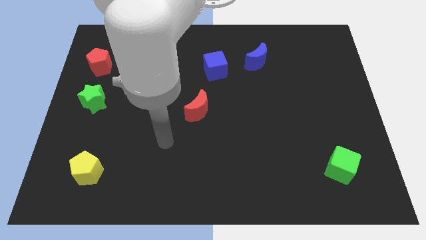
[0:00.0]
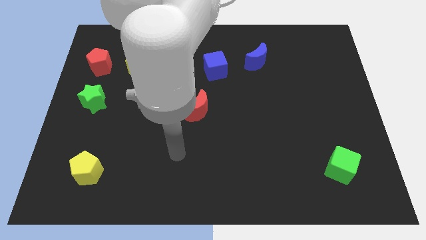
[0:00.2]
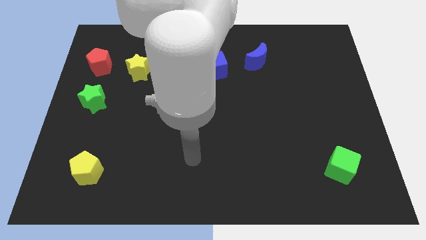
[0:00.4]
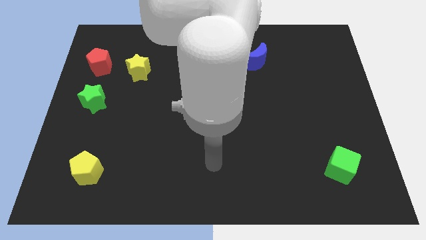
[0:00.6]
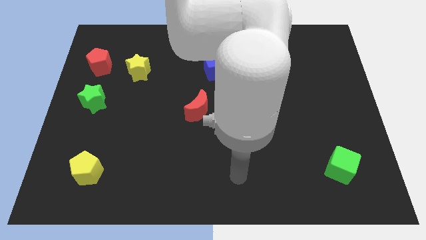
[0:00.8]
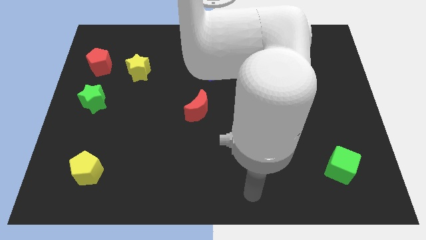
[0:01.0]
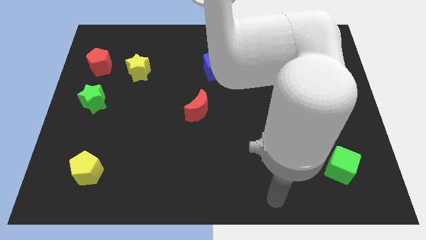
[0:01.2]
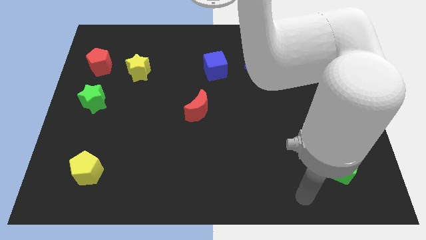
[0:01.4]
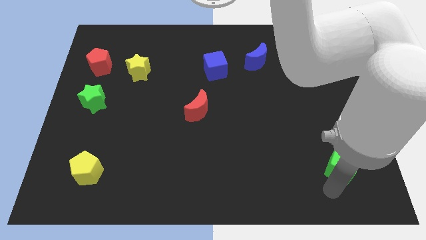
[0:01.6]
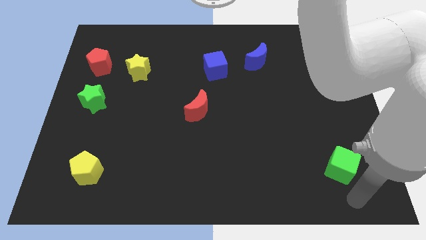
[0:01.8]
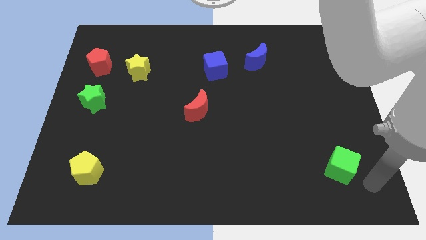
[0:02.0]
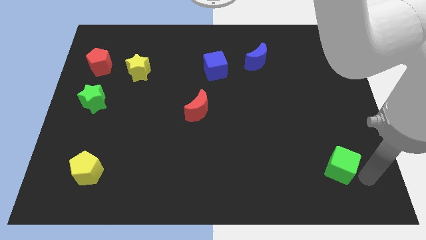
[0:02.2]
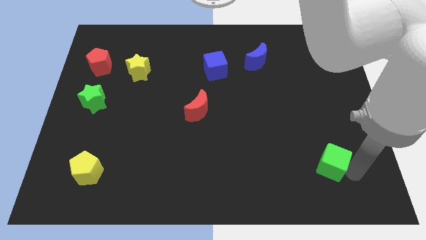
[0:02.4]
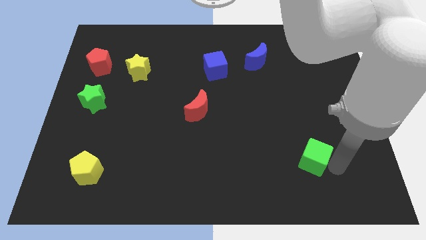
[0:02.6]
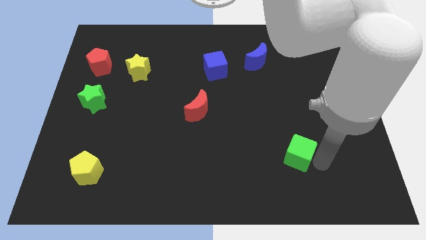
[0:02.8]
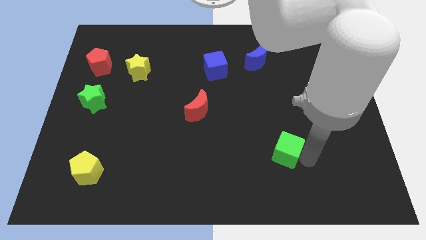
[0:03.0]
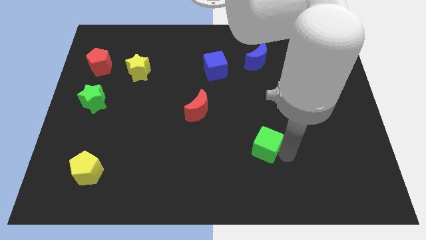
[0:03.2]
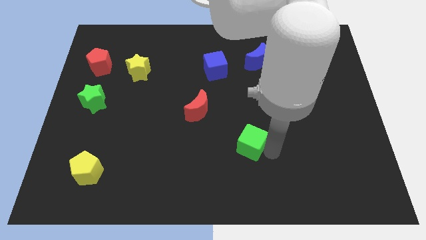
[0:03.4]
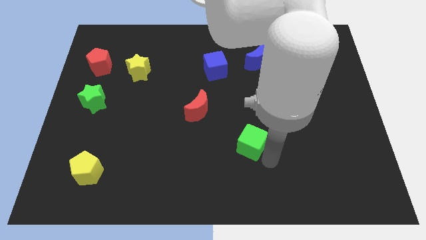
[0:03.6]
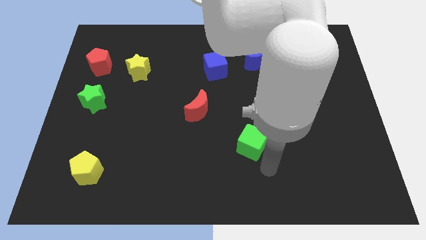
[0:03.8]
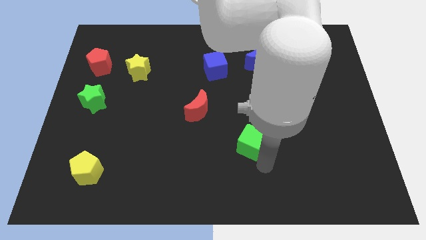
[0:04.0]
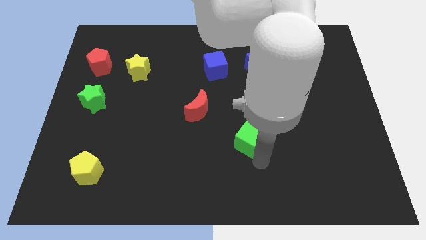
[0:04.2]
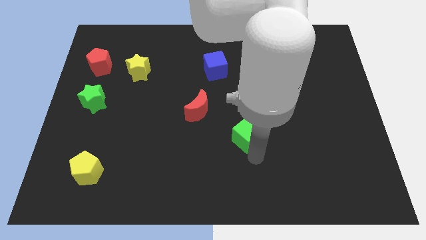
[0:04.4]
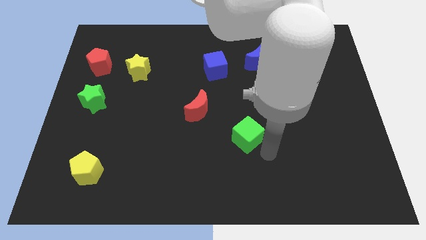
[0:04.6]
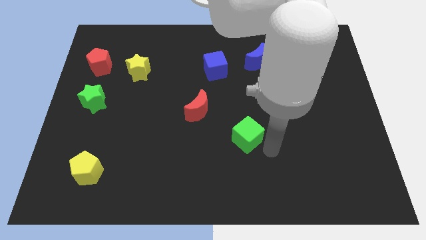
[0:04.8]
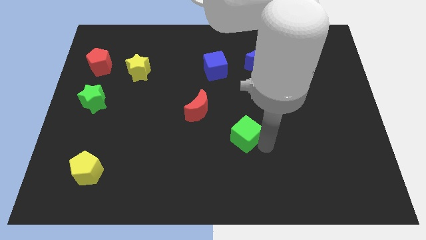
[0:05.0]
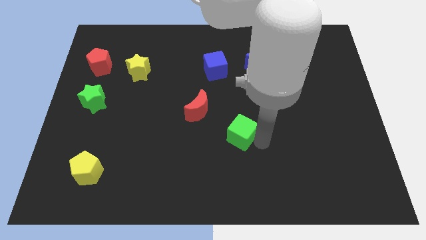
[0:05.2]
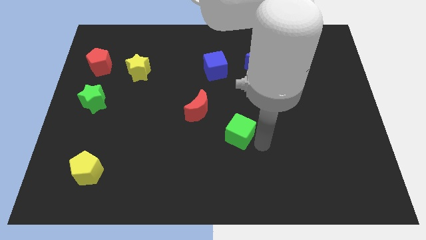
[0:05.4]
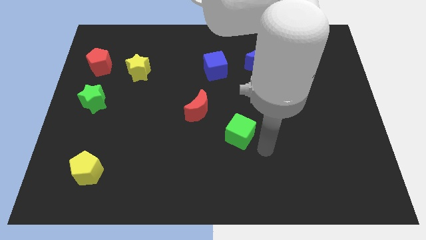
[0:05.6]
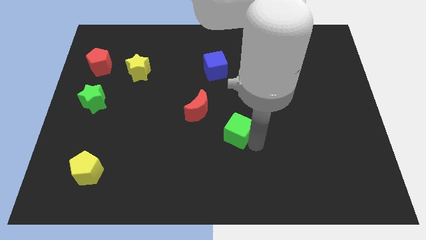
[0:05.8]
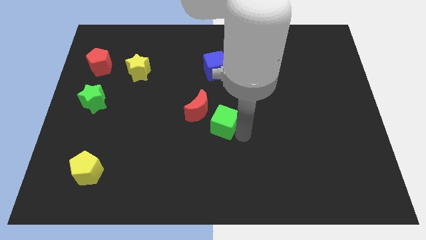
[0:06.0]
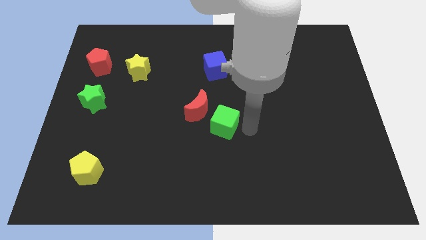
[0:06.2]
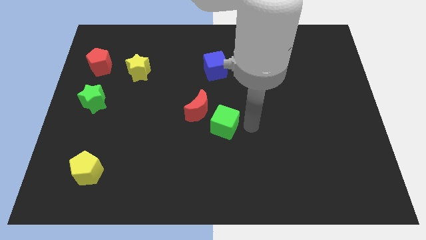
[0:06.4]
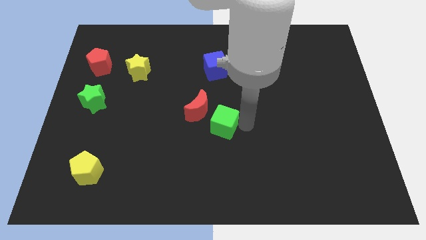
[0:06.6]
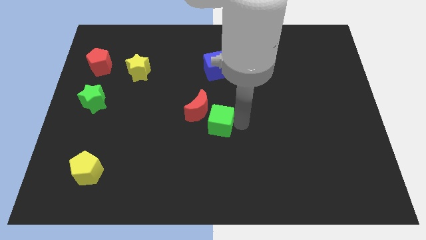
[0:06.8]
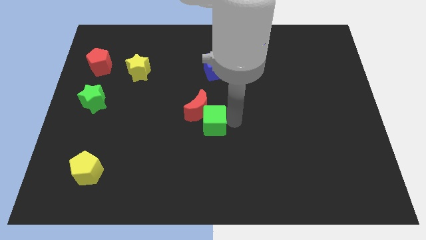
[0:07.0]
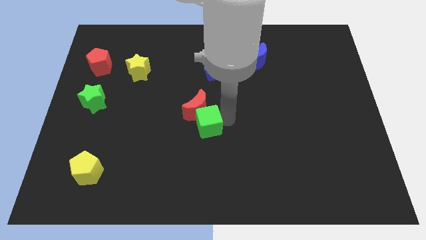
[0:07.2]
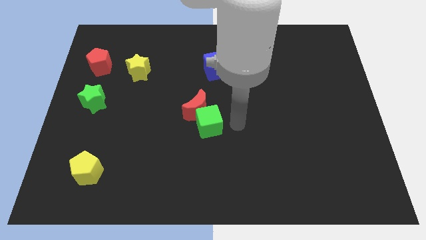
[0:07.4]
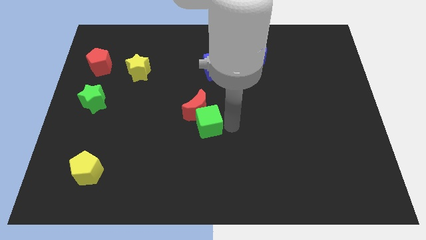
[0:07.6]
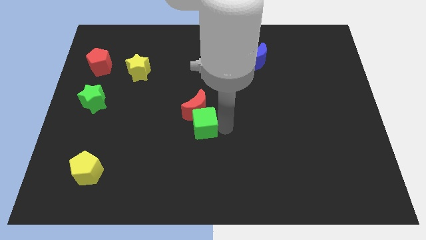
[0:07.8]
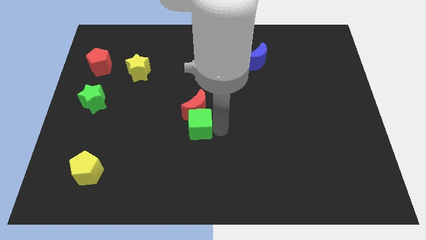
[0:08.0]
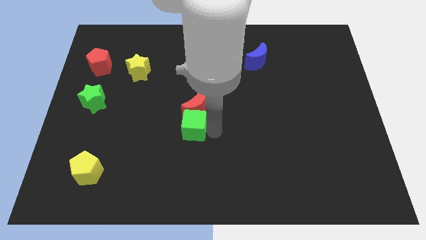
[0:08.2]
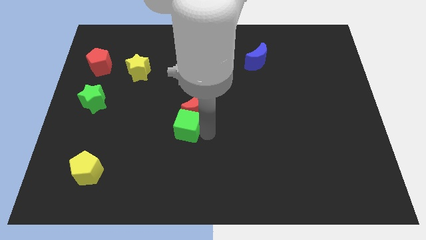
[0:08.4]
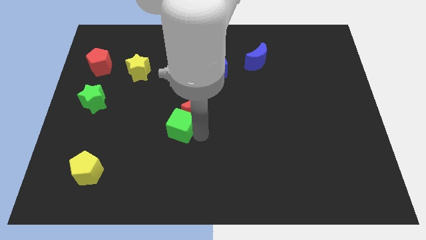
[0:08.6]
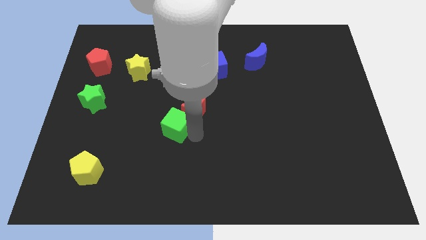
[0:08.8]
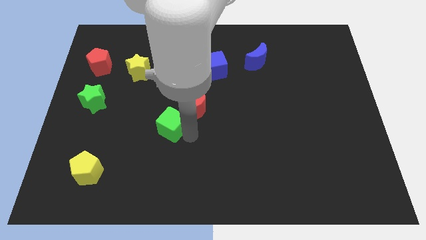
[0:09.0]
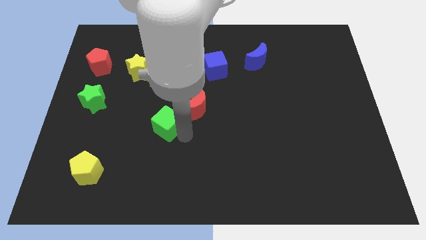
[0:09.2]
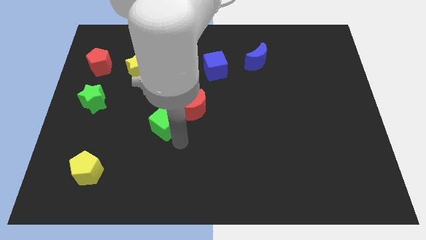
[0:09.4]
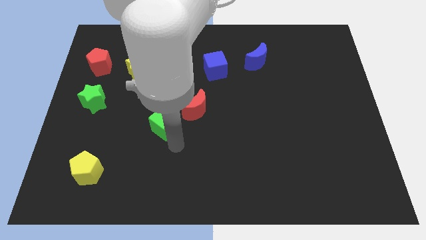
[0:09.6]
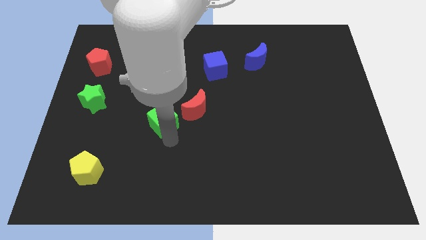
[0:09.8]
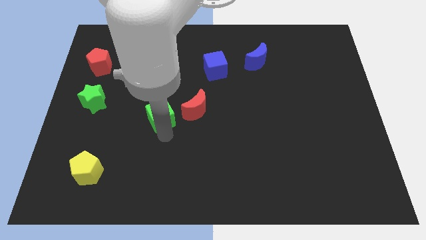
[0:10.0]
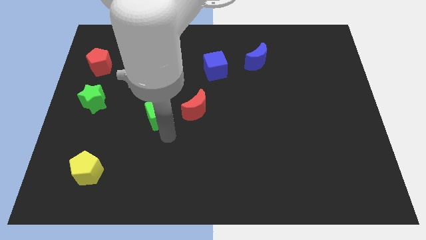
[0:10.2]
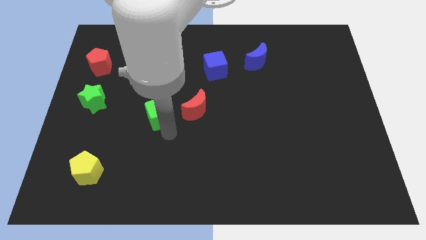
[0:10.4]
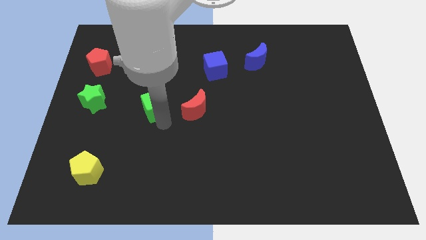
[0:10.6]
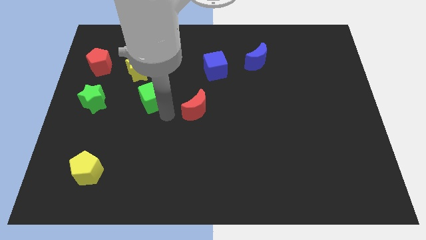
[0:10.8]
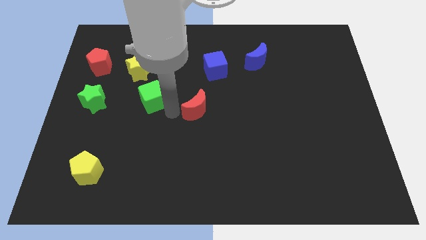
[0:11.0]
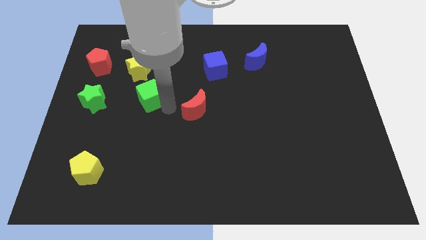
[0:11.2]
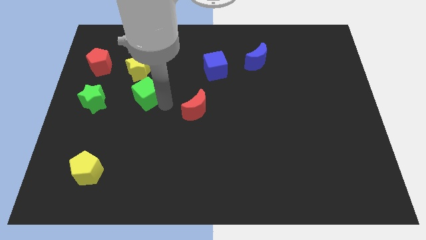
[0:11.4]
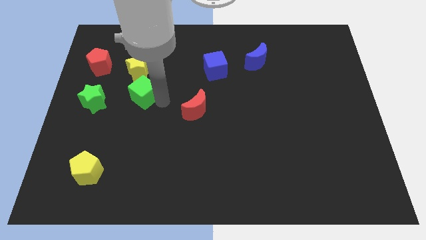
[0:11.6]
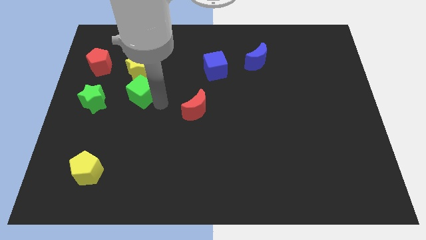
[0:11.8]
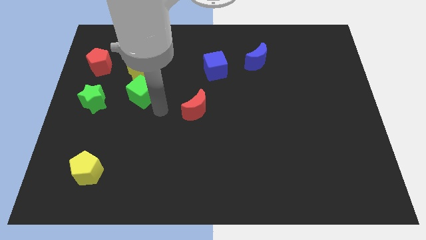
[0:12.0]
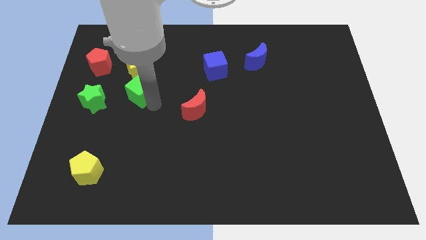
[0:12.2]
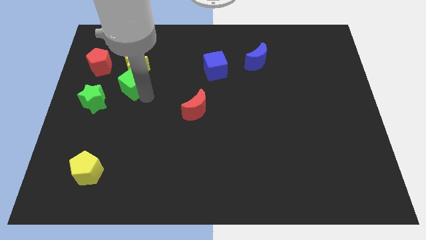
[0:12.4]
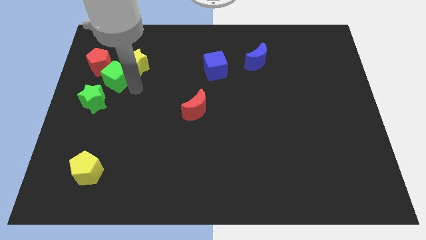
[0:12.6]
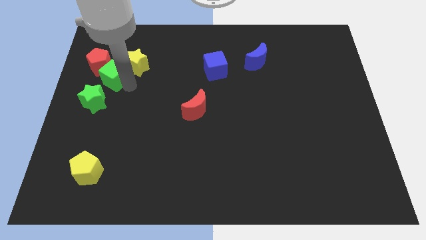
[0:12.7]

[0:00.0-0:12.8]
move the green cube towards the red pentagon

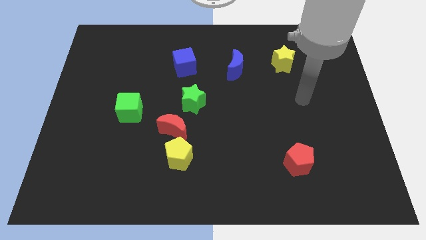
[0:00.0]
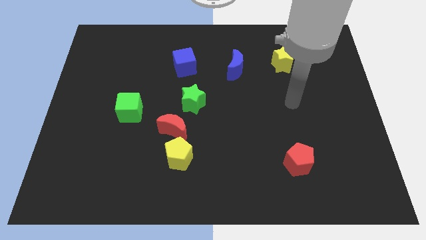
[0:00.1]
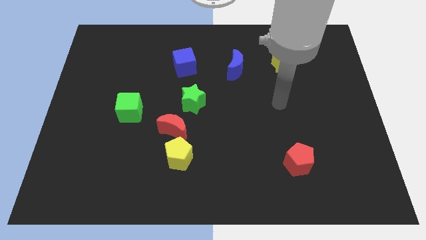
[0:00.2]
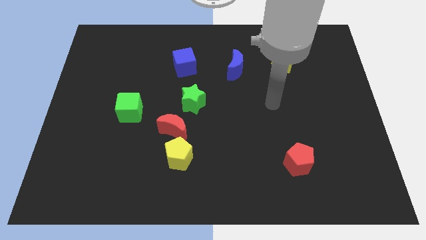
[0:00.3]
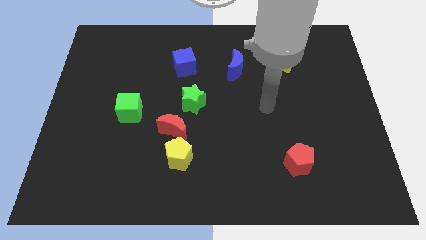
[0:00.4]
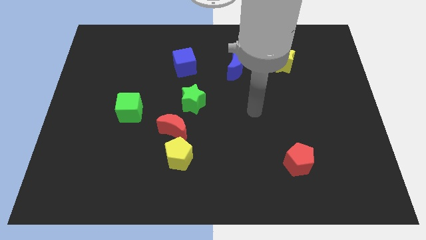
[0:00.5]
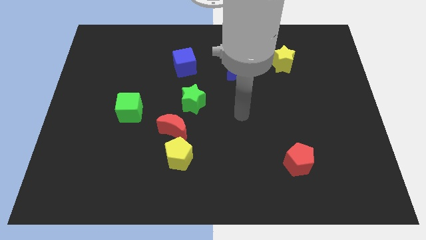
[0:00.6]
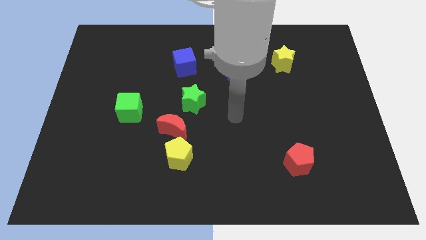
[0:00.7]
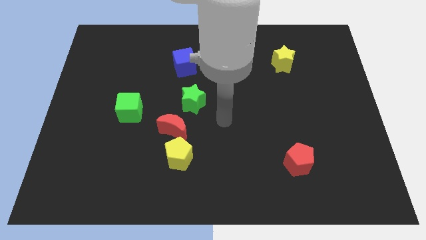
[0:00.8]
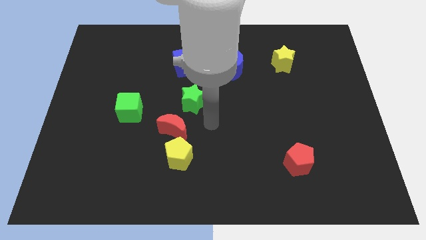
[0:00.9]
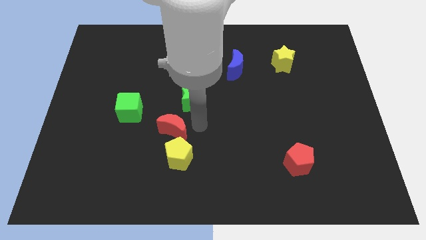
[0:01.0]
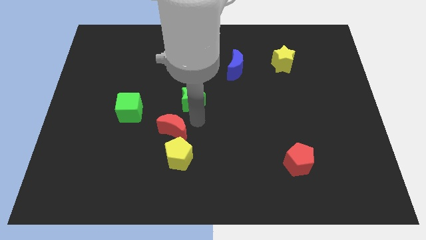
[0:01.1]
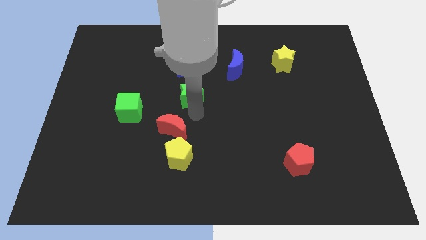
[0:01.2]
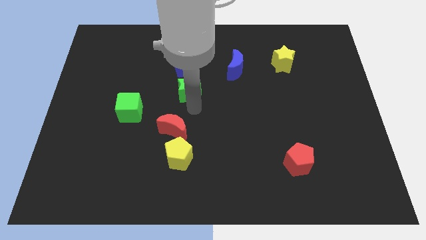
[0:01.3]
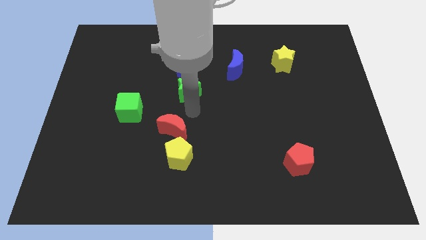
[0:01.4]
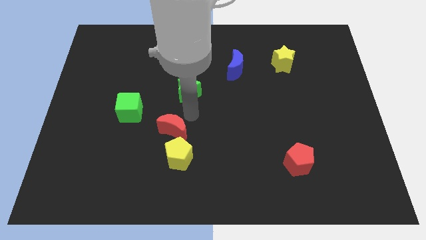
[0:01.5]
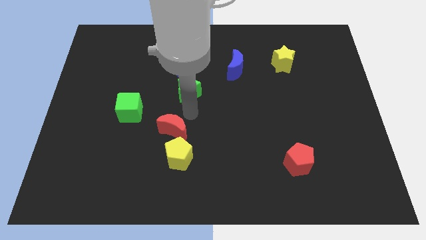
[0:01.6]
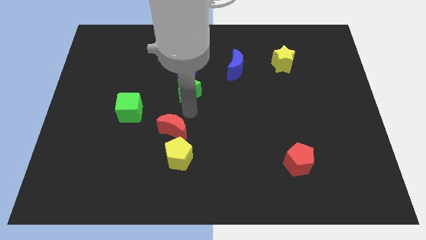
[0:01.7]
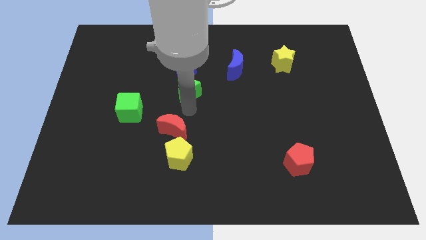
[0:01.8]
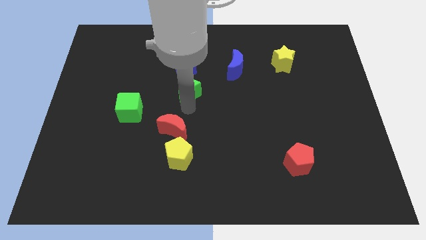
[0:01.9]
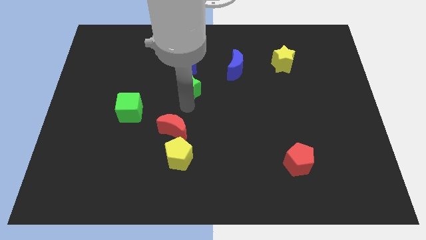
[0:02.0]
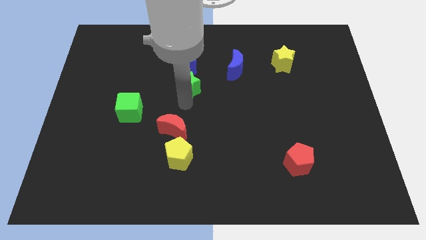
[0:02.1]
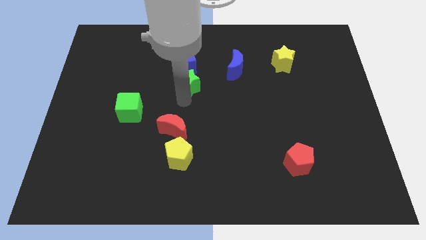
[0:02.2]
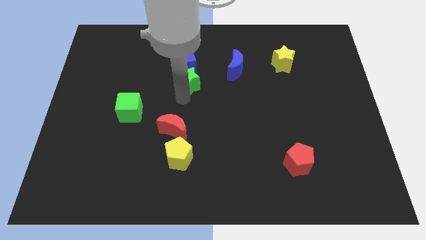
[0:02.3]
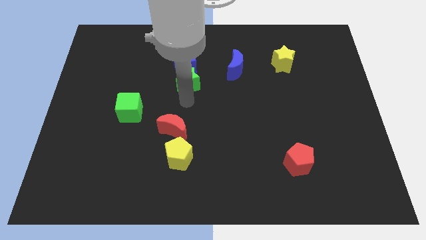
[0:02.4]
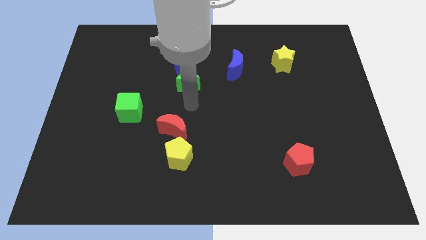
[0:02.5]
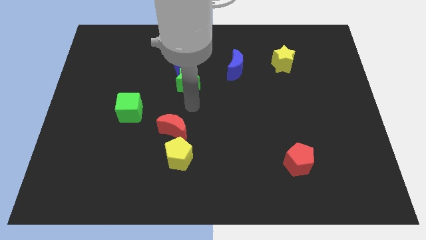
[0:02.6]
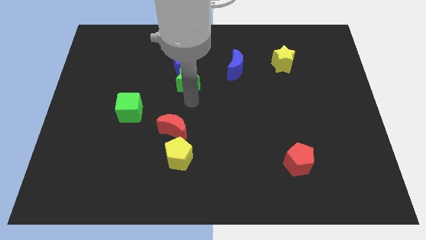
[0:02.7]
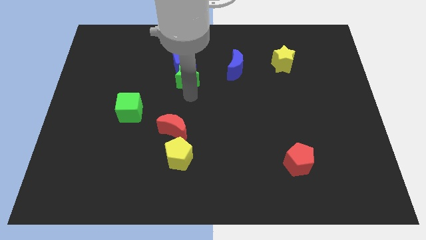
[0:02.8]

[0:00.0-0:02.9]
push the green star next to the blue cube
